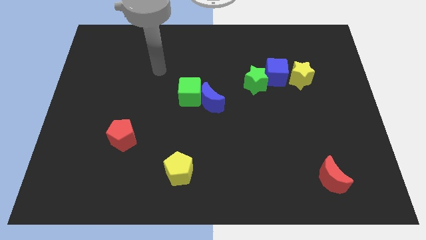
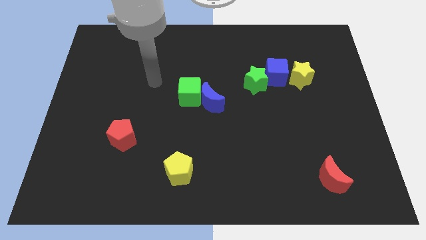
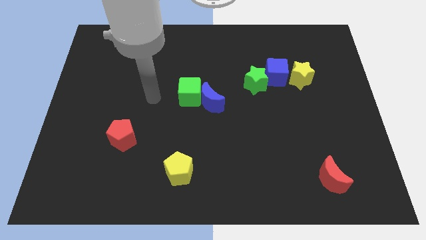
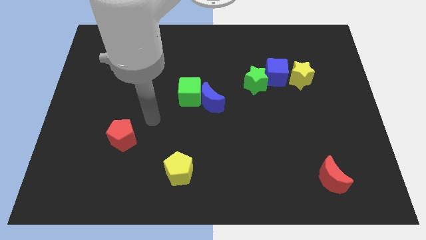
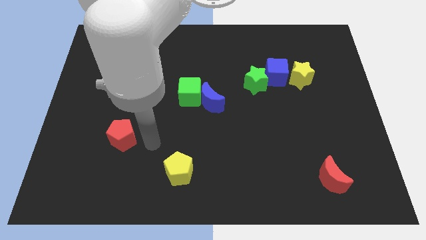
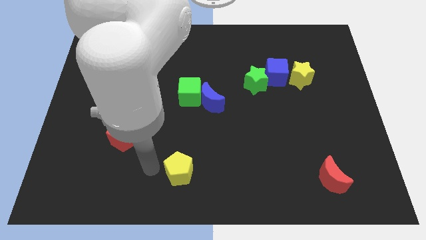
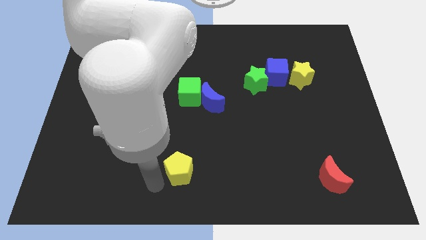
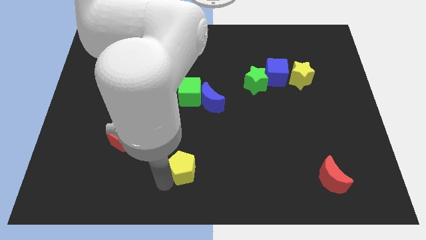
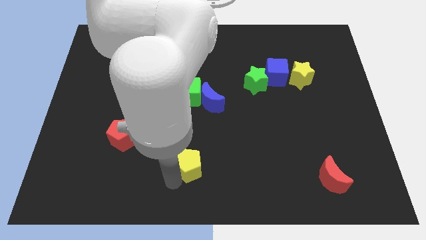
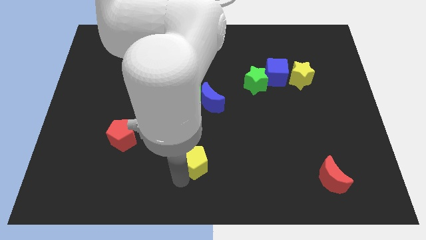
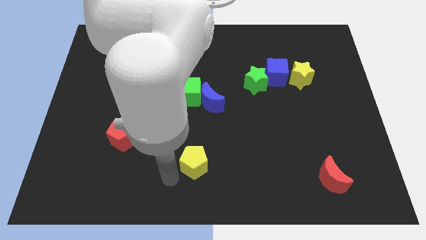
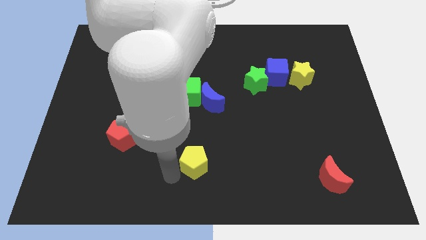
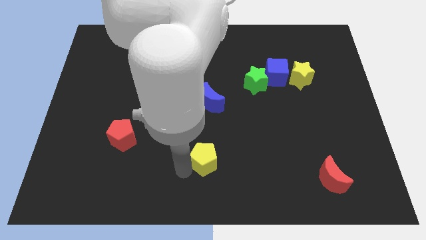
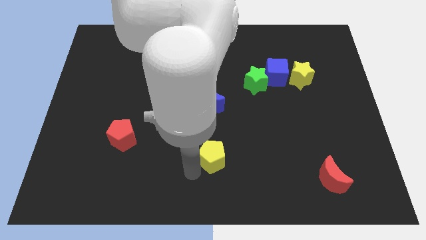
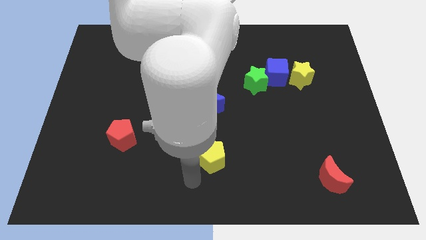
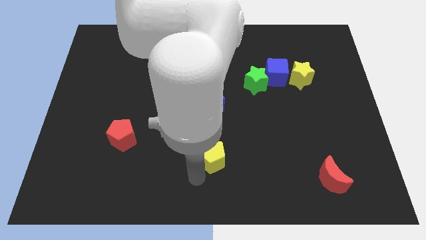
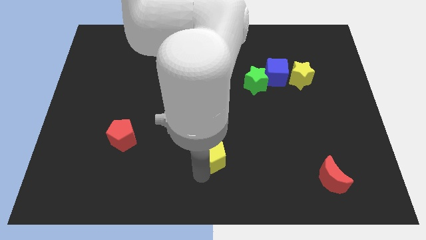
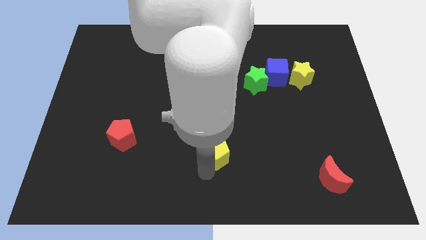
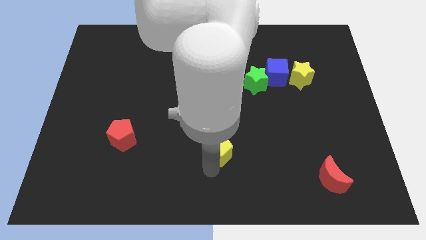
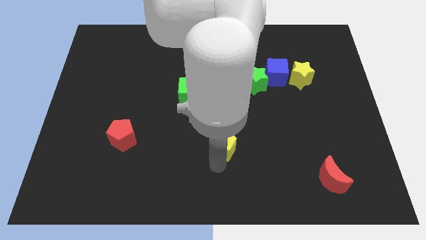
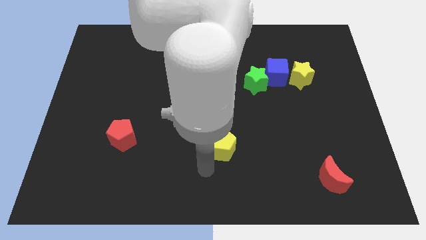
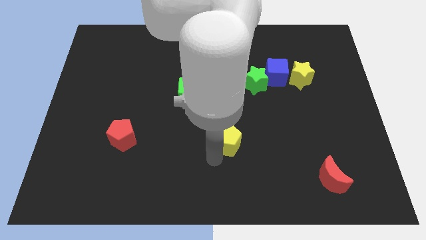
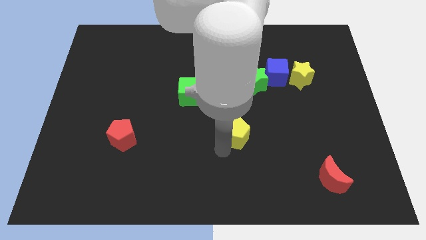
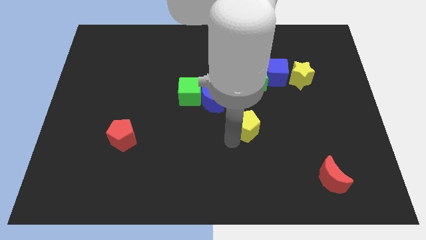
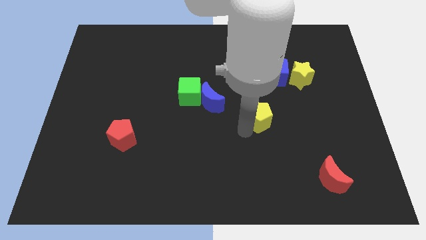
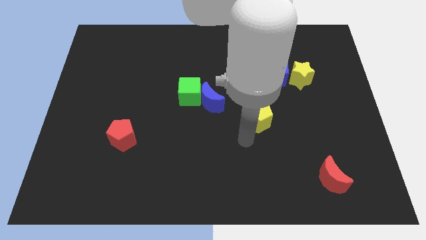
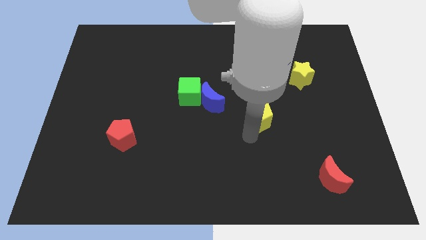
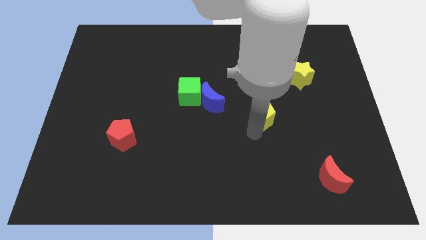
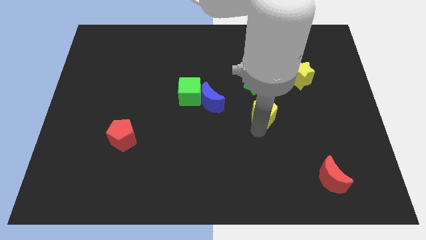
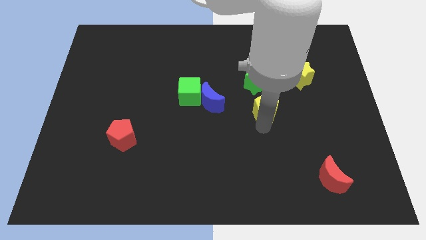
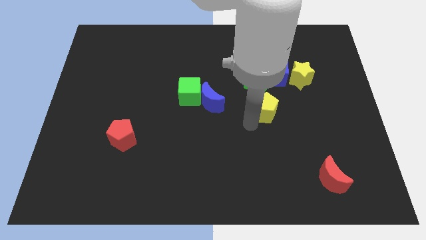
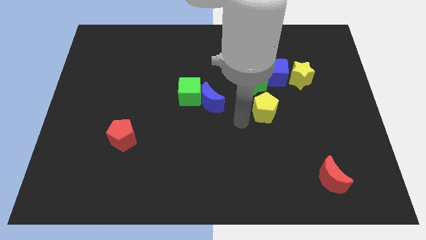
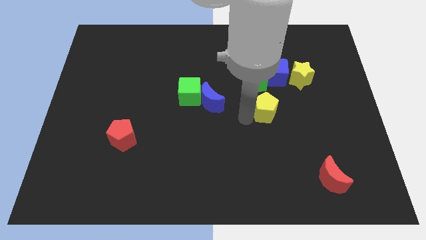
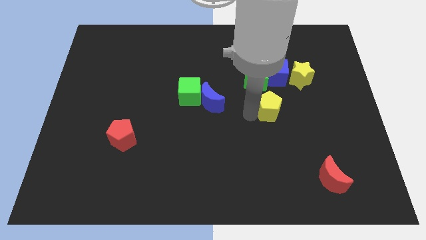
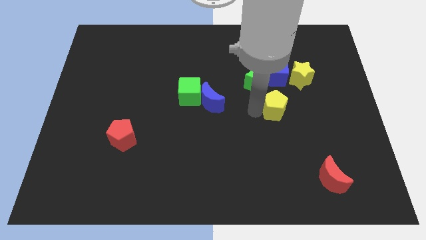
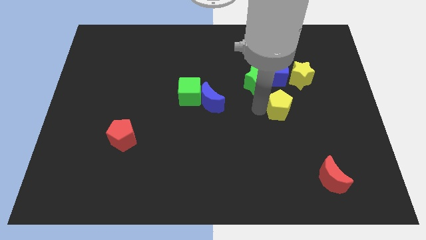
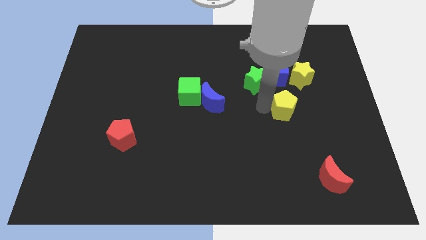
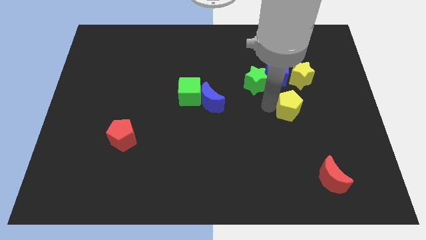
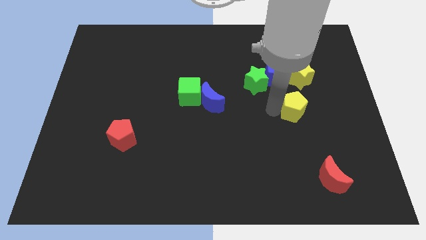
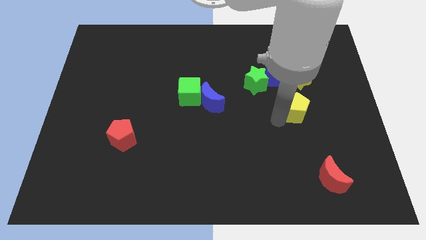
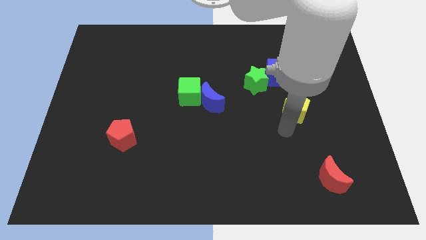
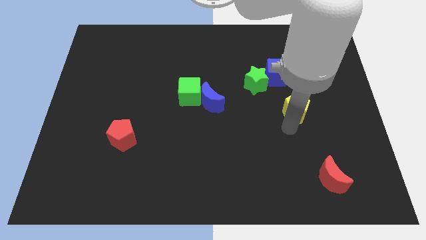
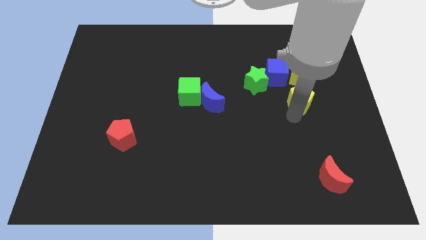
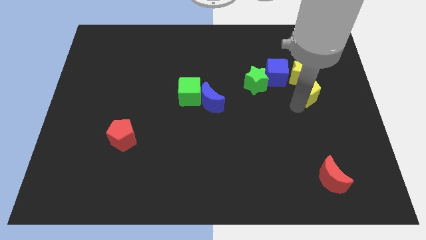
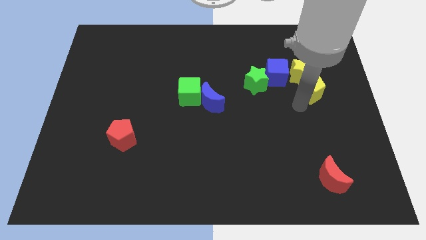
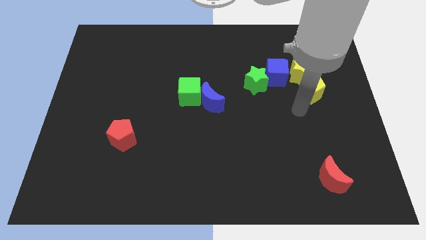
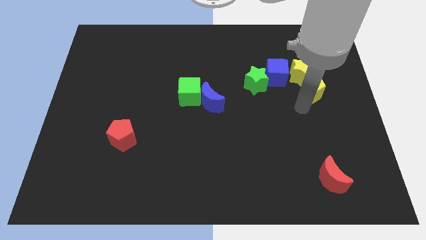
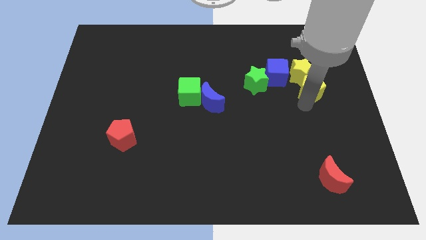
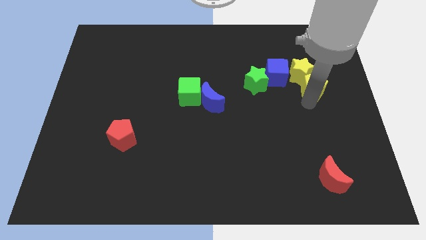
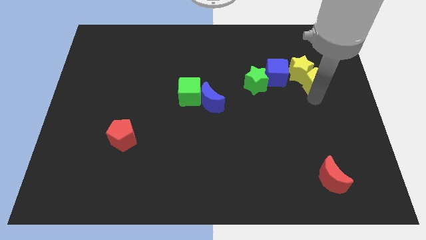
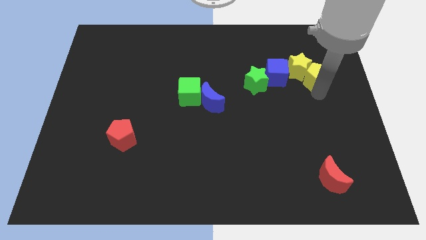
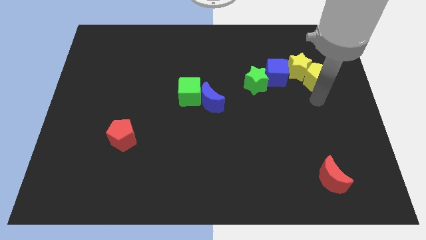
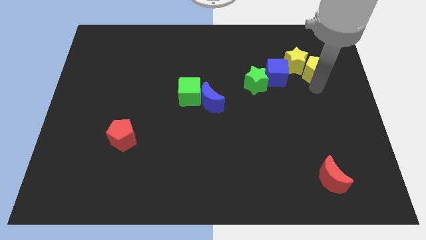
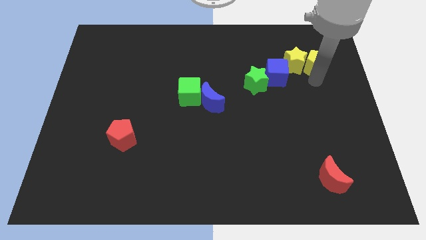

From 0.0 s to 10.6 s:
move the yellow pentagon to the top right of the yellow star

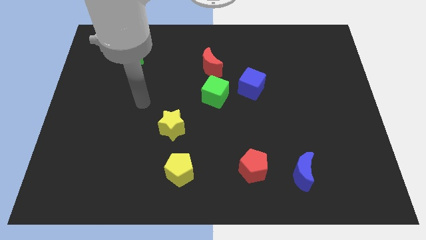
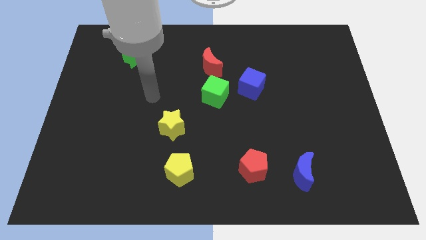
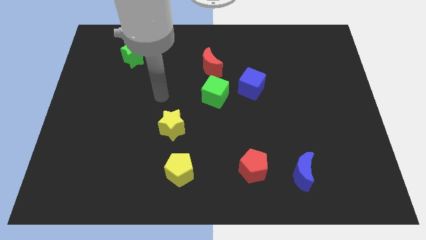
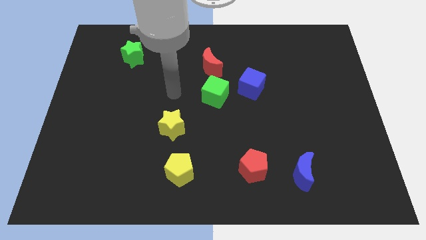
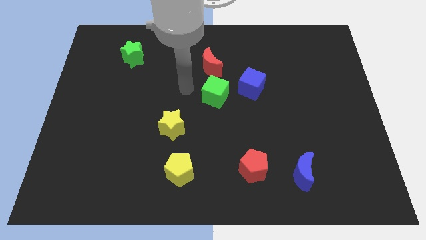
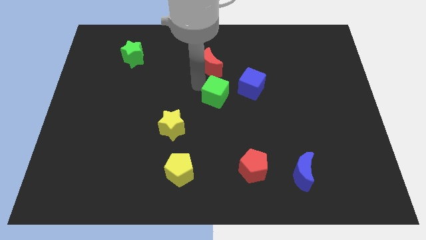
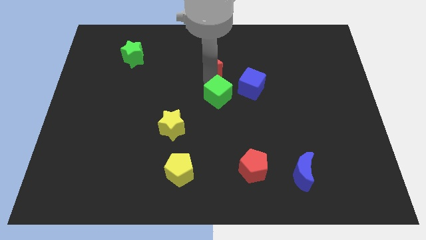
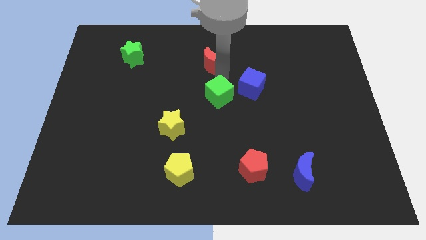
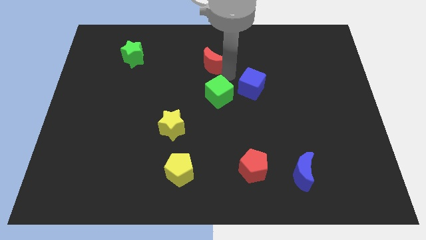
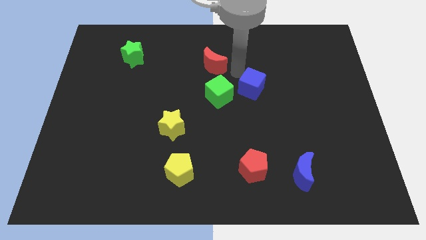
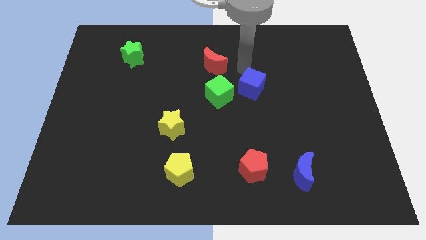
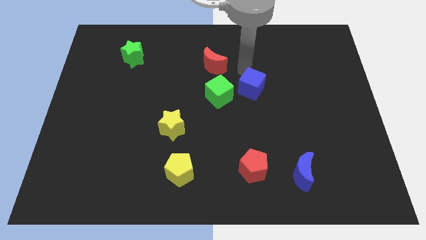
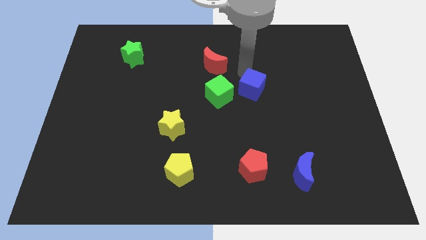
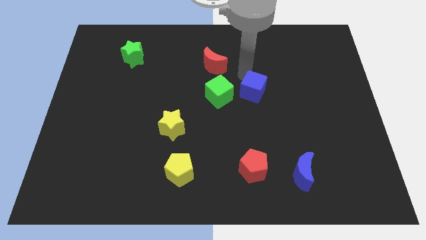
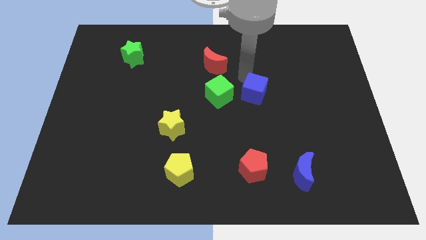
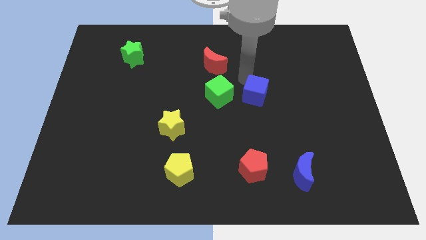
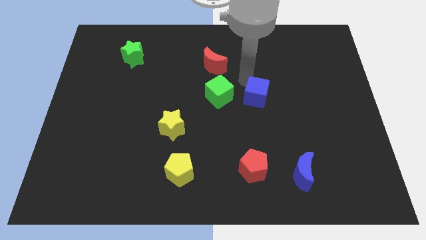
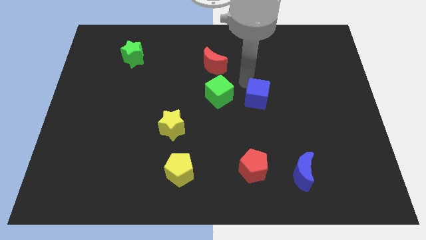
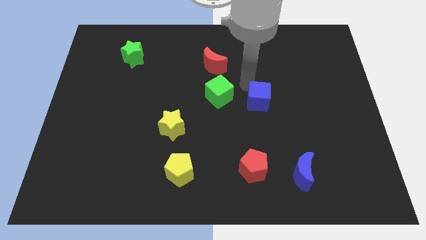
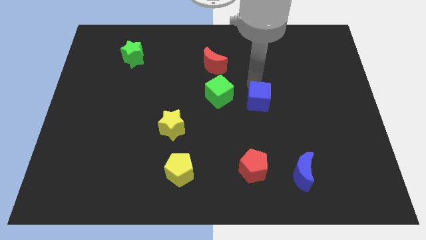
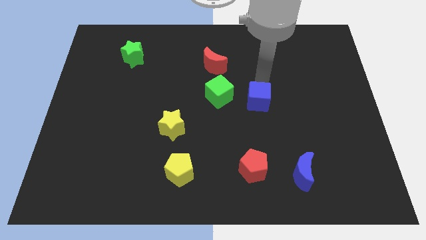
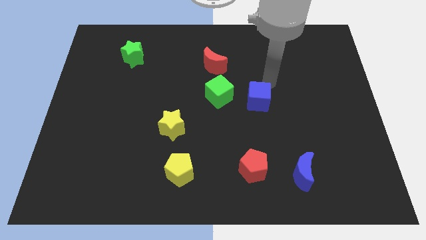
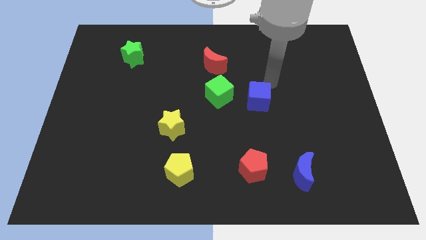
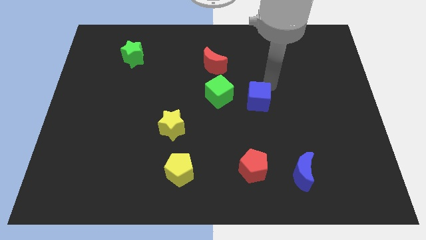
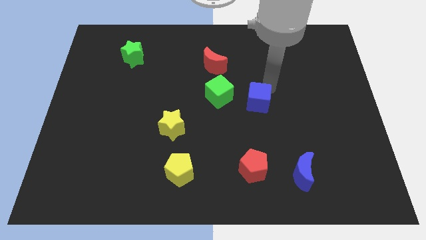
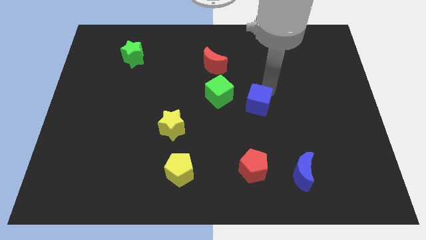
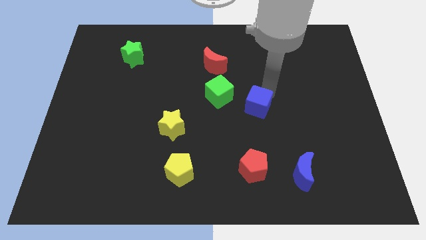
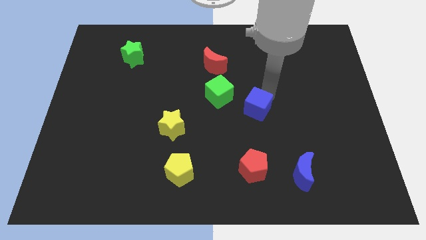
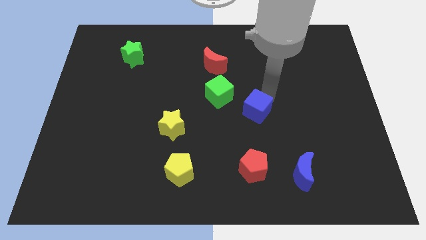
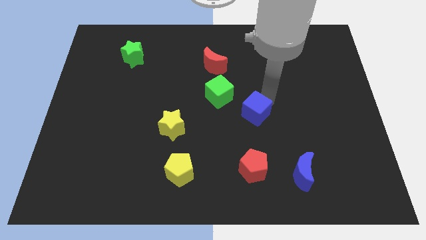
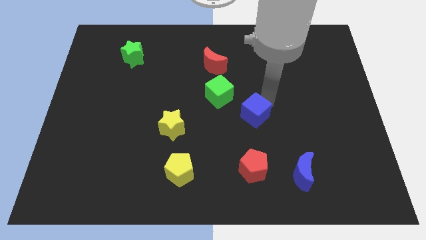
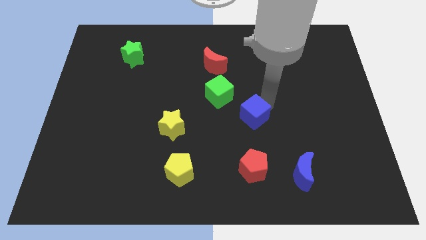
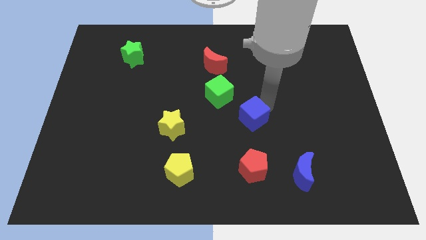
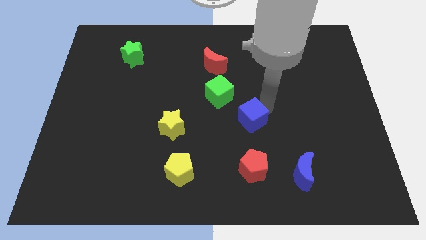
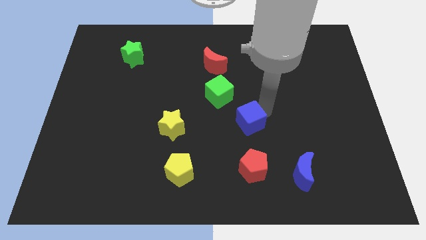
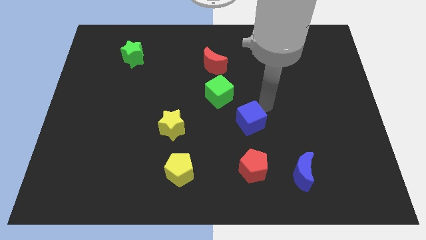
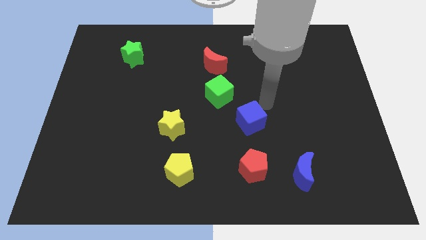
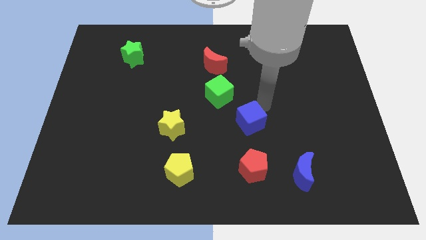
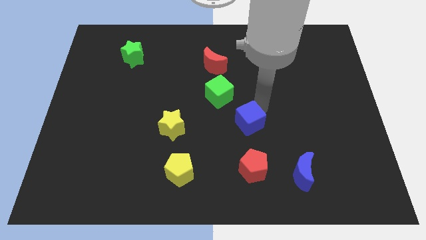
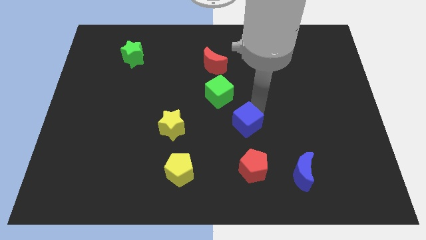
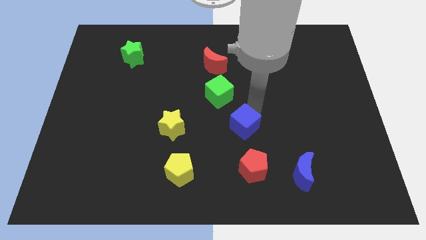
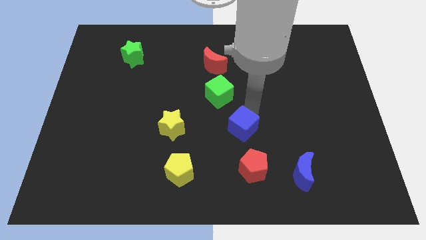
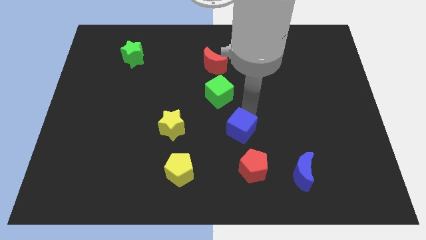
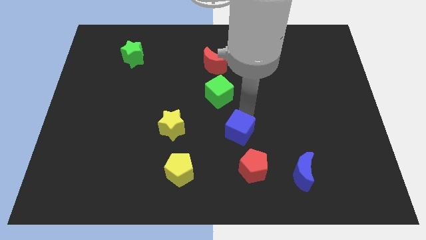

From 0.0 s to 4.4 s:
put the blue cube to the top left of the red pentagon
